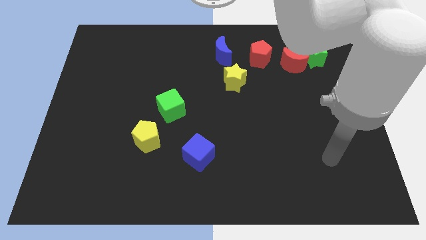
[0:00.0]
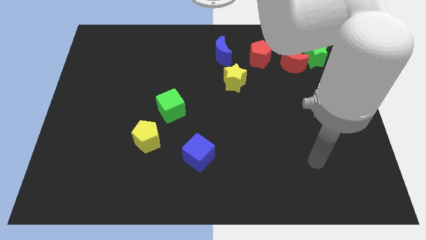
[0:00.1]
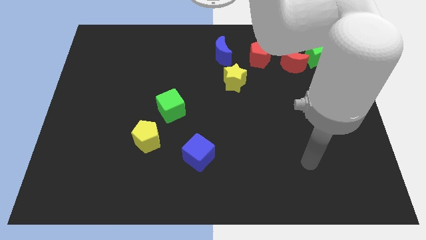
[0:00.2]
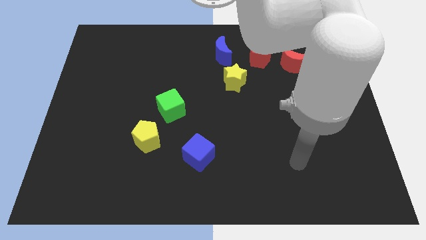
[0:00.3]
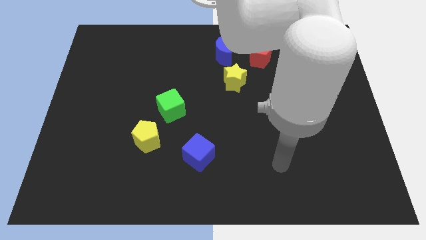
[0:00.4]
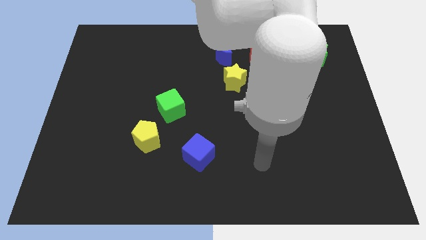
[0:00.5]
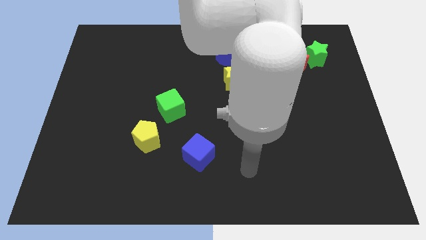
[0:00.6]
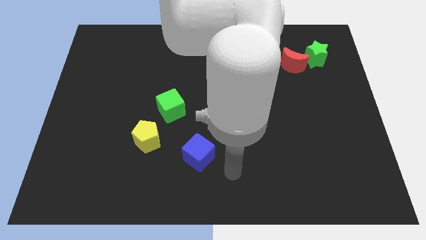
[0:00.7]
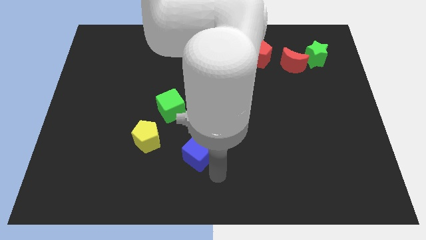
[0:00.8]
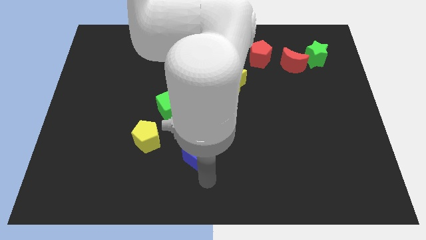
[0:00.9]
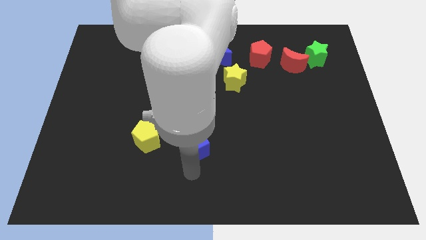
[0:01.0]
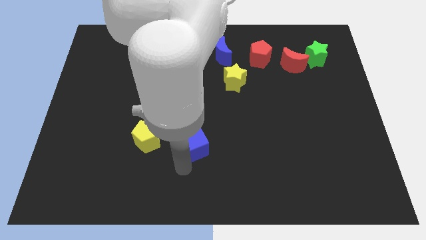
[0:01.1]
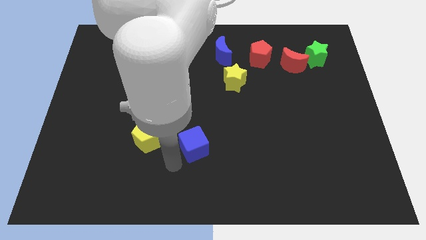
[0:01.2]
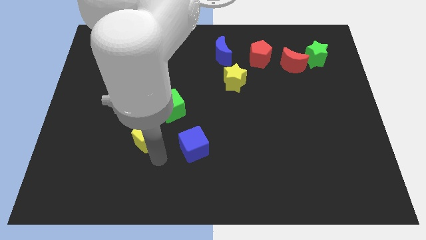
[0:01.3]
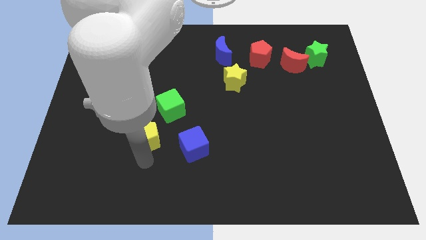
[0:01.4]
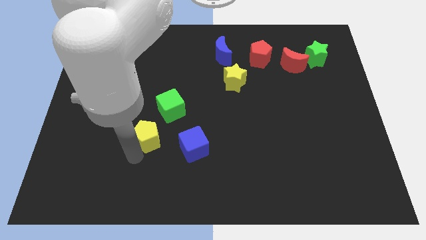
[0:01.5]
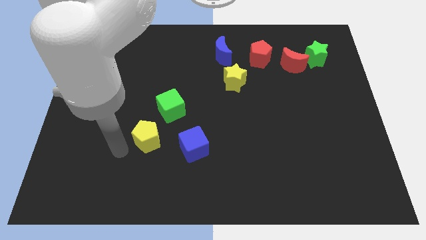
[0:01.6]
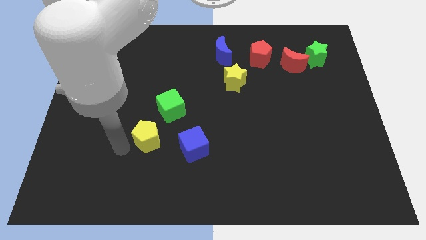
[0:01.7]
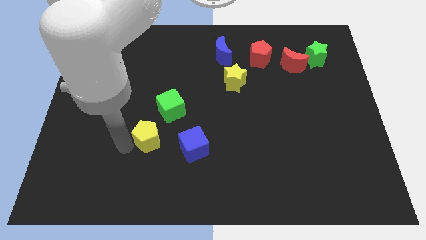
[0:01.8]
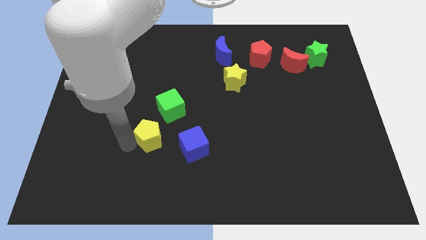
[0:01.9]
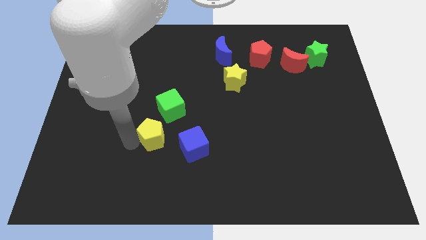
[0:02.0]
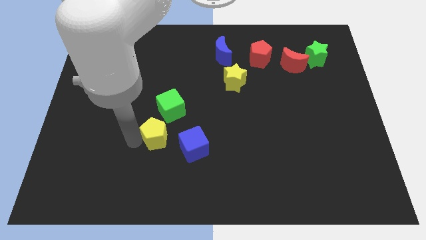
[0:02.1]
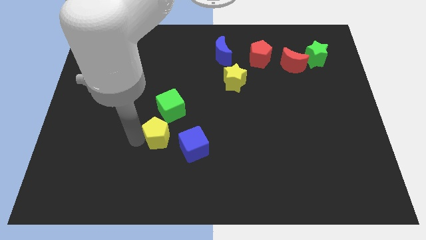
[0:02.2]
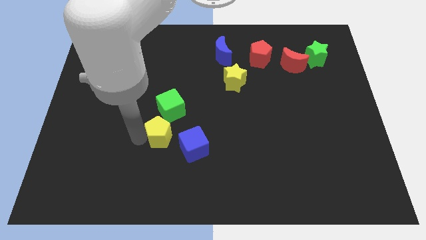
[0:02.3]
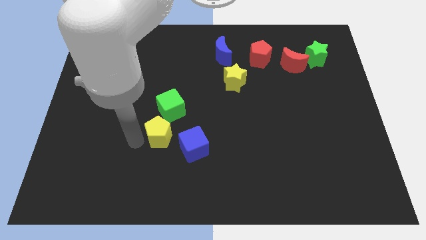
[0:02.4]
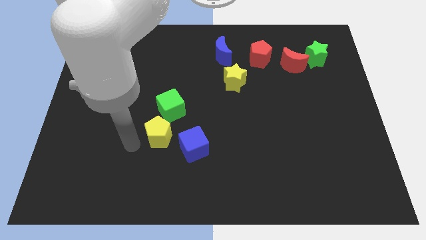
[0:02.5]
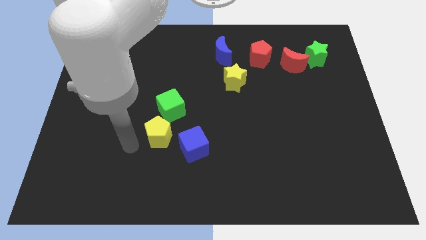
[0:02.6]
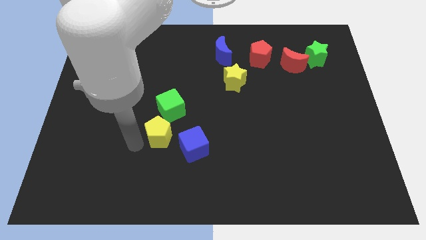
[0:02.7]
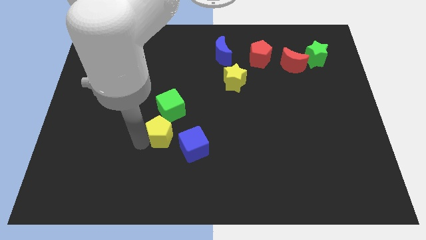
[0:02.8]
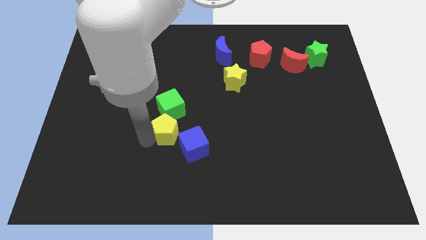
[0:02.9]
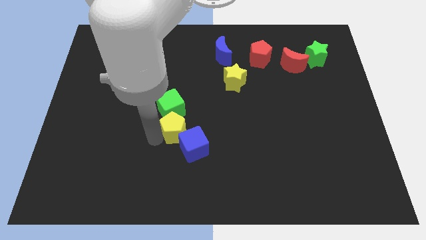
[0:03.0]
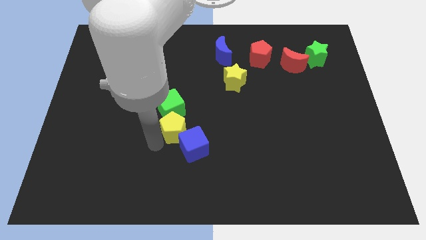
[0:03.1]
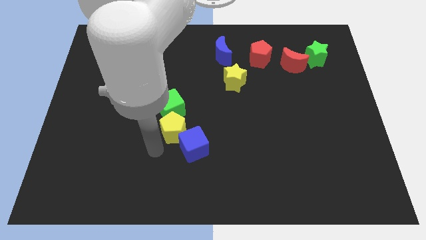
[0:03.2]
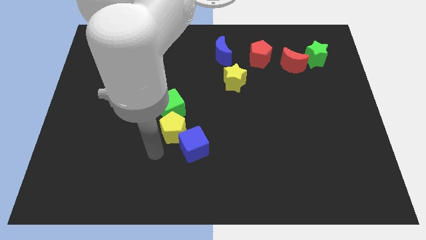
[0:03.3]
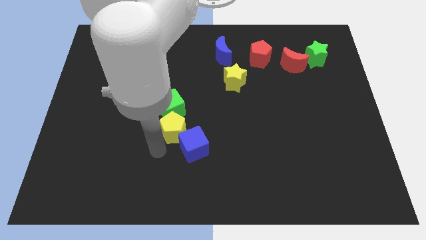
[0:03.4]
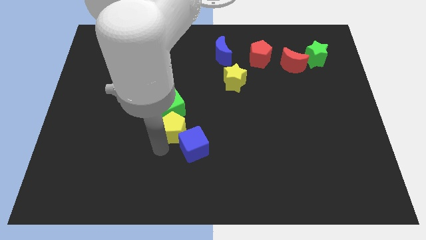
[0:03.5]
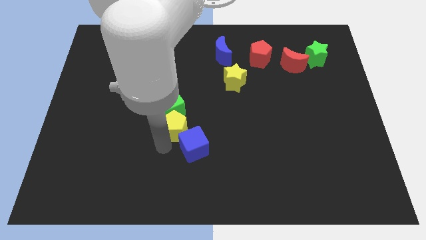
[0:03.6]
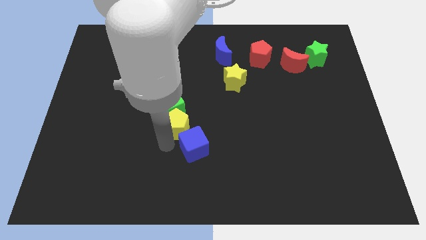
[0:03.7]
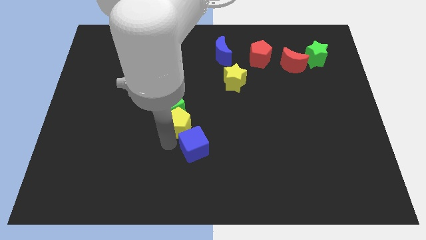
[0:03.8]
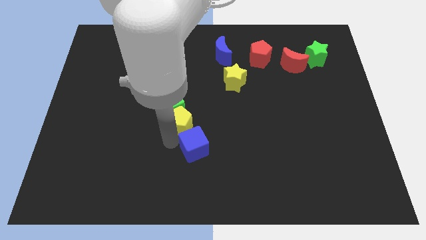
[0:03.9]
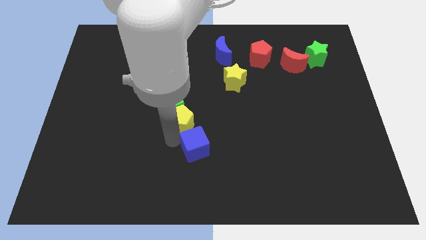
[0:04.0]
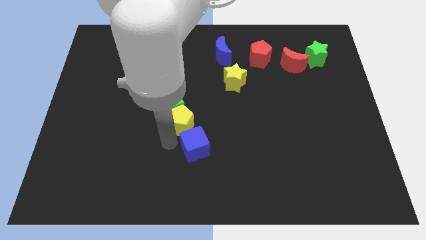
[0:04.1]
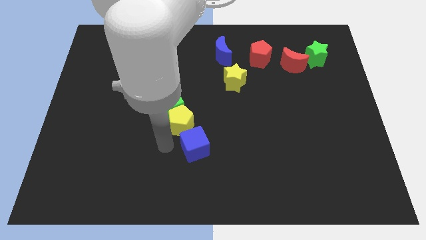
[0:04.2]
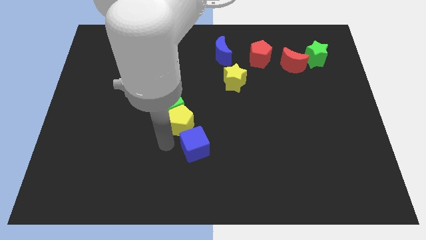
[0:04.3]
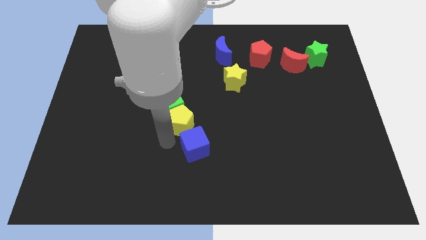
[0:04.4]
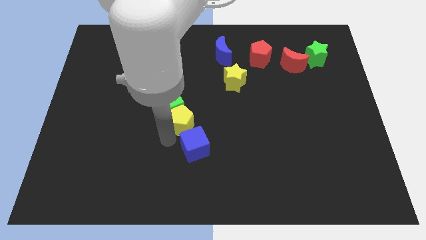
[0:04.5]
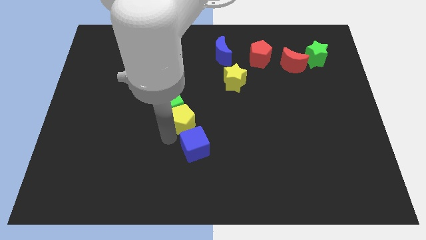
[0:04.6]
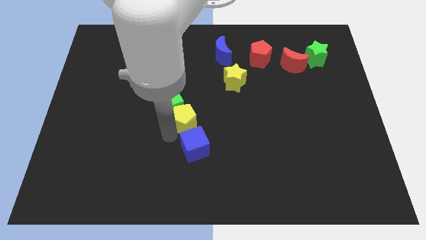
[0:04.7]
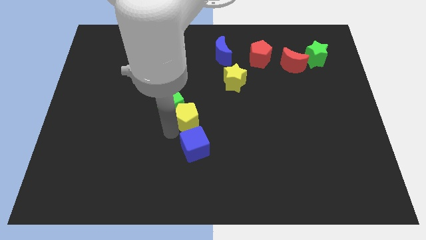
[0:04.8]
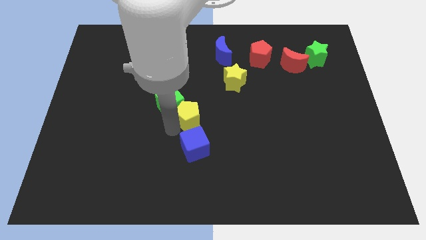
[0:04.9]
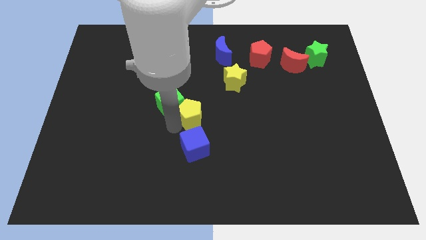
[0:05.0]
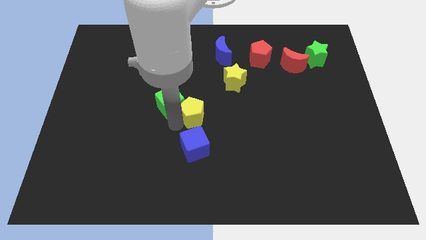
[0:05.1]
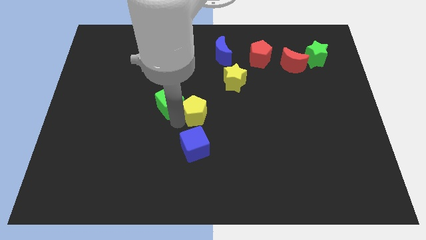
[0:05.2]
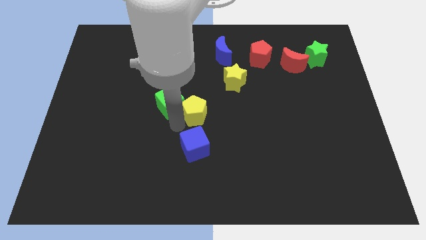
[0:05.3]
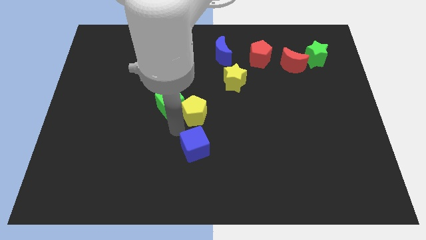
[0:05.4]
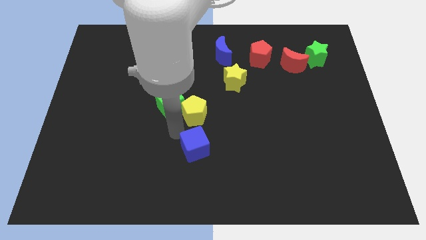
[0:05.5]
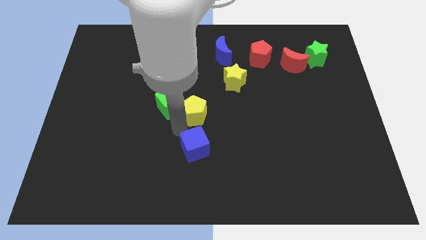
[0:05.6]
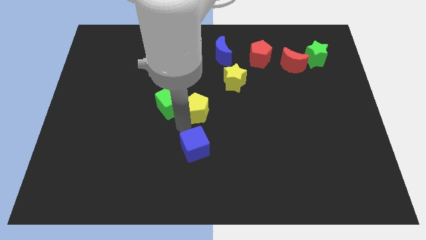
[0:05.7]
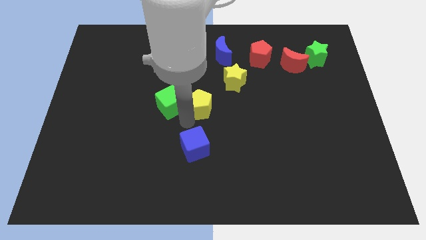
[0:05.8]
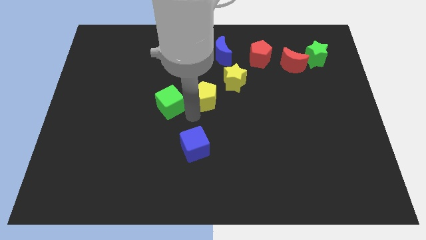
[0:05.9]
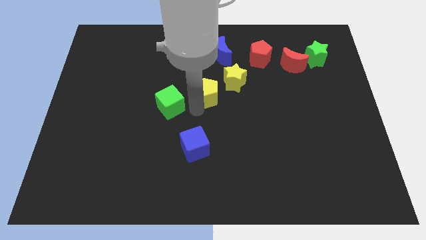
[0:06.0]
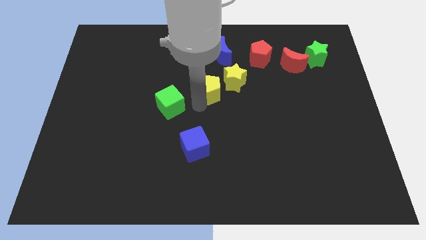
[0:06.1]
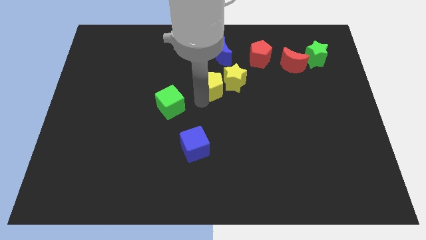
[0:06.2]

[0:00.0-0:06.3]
slide the yellow pentagon next to the yellow star
